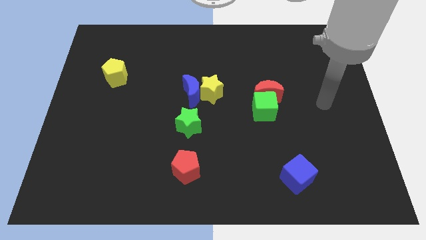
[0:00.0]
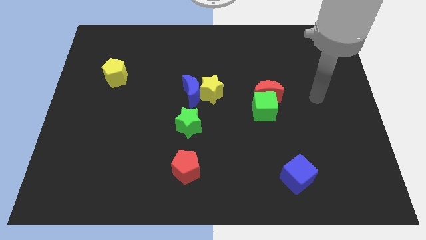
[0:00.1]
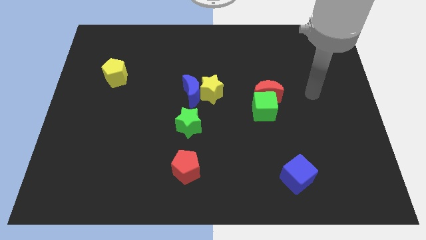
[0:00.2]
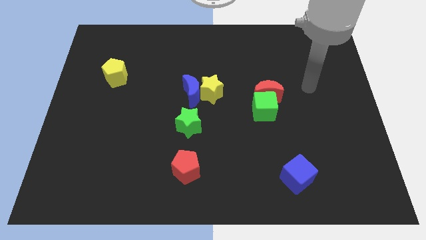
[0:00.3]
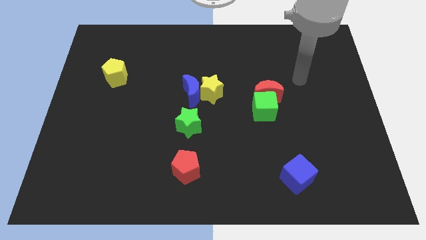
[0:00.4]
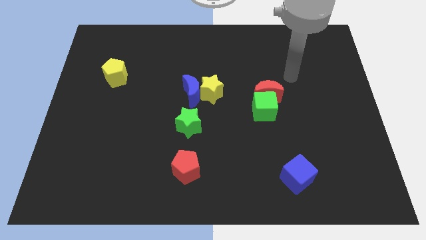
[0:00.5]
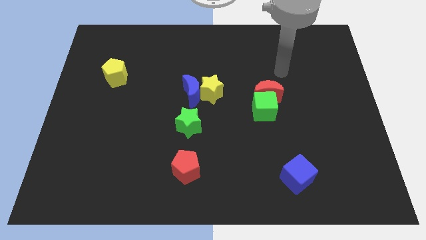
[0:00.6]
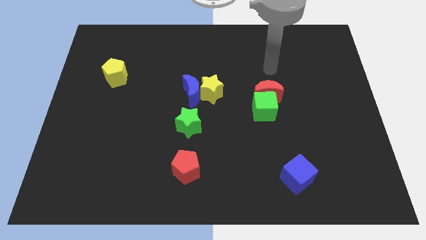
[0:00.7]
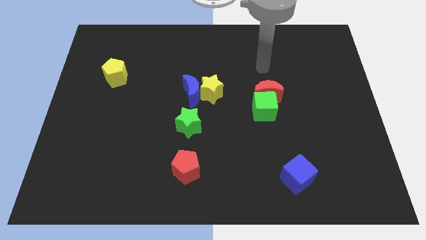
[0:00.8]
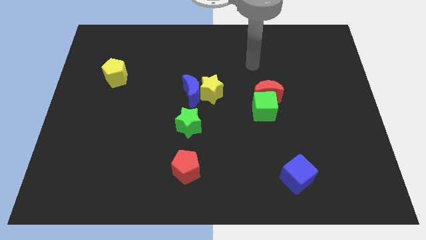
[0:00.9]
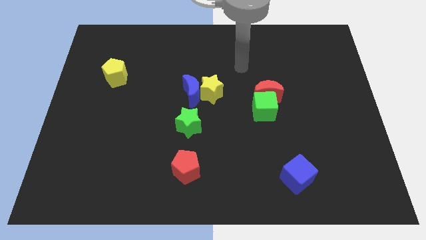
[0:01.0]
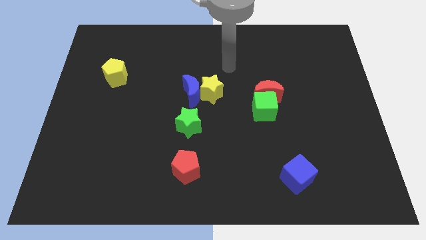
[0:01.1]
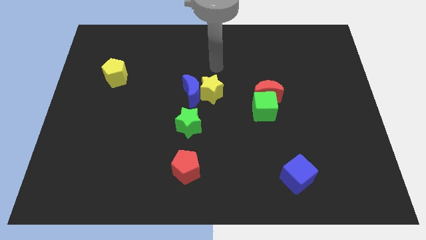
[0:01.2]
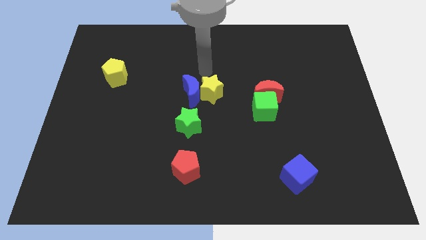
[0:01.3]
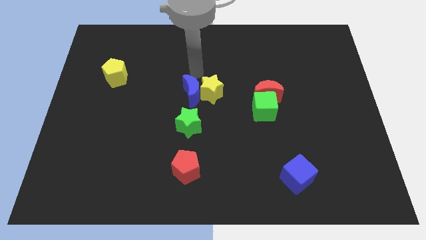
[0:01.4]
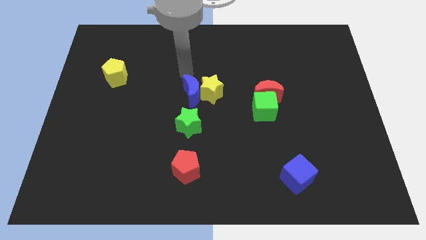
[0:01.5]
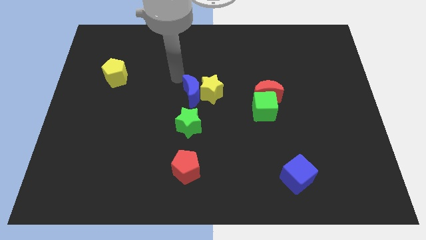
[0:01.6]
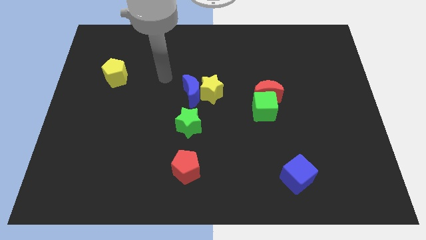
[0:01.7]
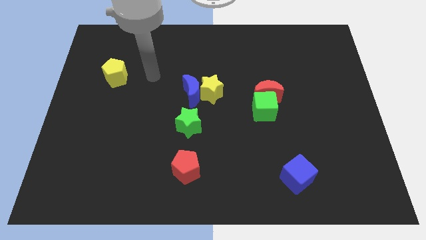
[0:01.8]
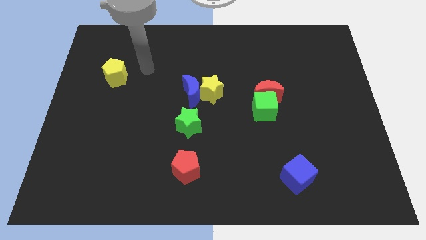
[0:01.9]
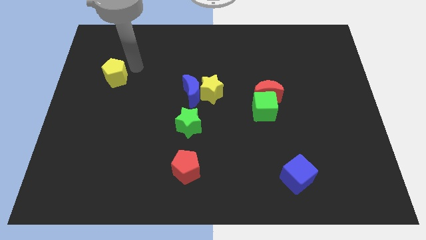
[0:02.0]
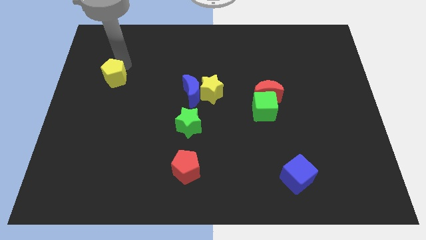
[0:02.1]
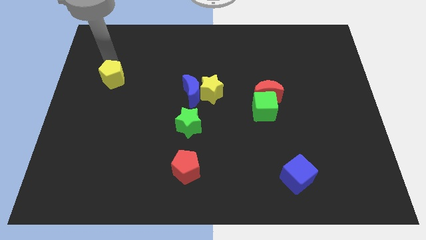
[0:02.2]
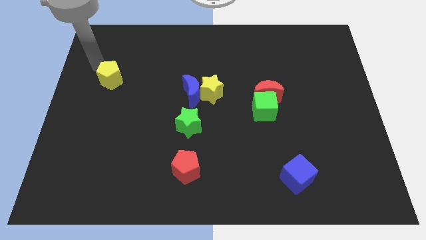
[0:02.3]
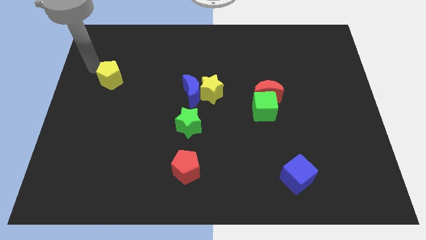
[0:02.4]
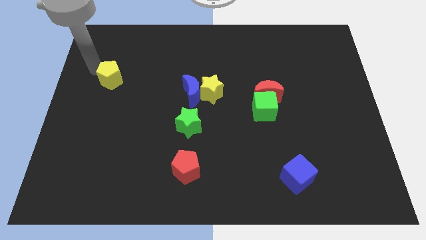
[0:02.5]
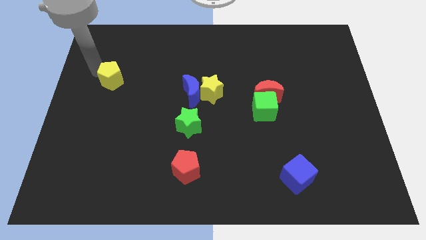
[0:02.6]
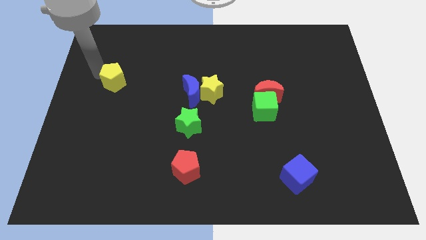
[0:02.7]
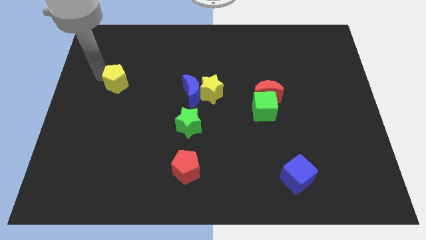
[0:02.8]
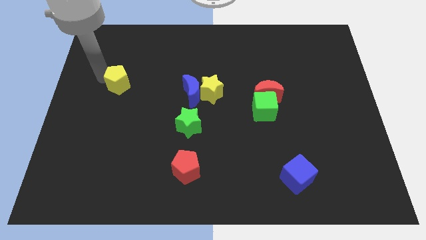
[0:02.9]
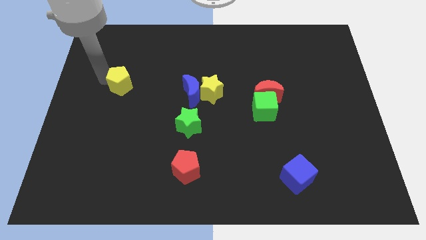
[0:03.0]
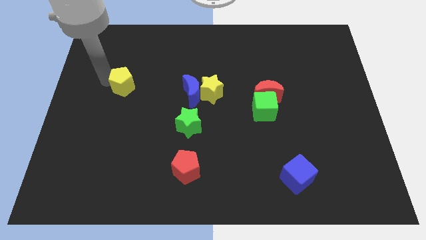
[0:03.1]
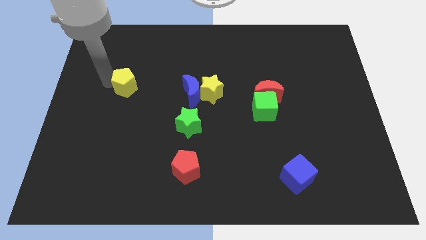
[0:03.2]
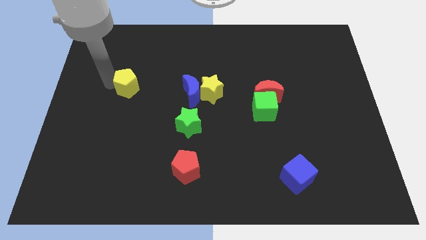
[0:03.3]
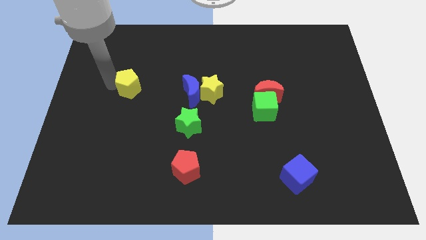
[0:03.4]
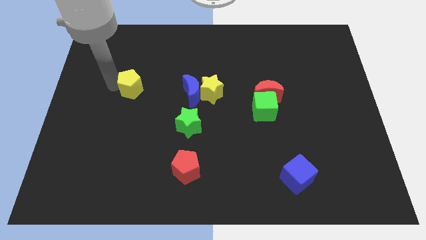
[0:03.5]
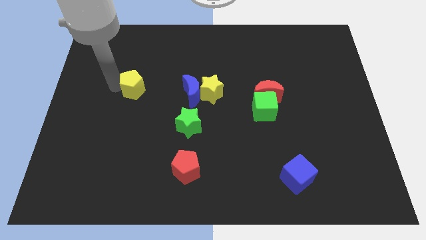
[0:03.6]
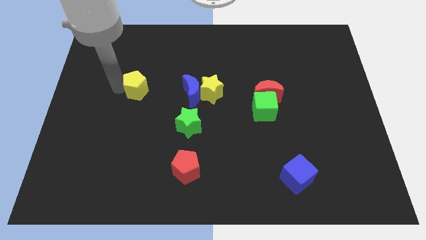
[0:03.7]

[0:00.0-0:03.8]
slightly push the yellow pentagon downwards and to the right diagonally

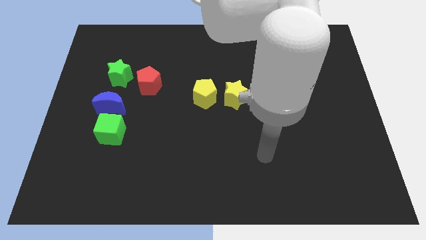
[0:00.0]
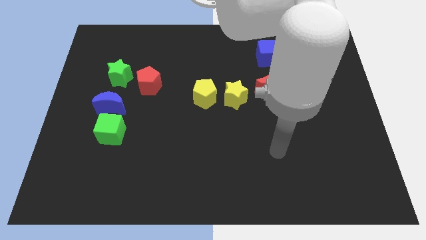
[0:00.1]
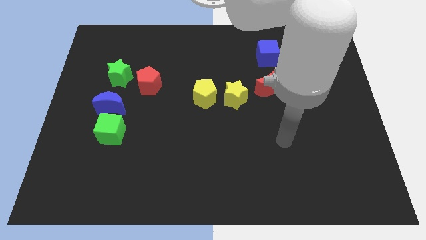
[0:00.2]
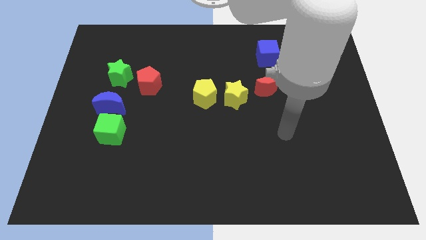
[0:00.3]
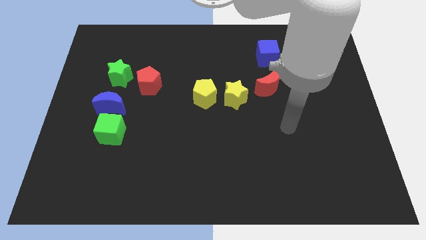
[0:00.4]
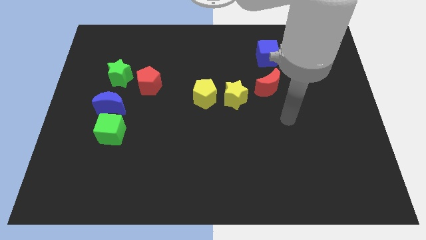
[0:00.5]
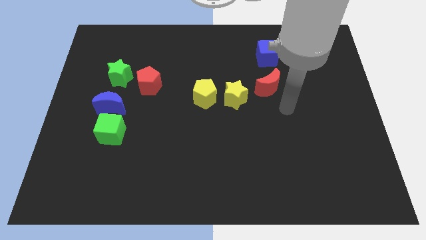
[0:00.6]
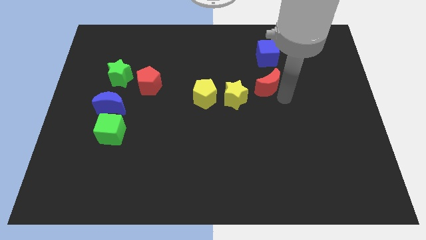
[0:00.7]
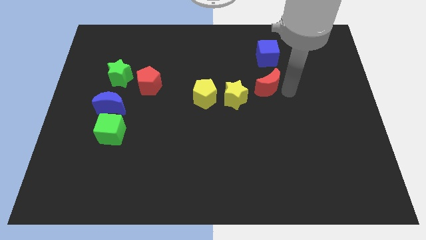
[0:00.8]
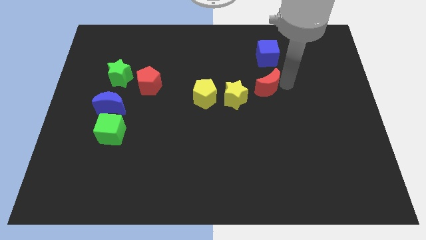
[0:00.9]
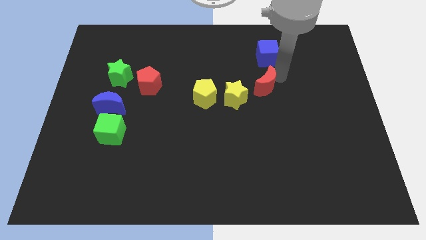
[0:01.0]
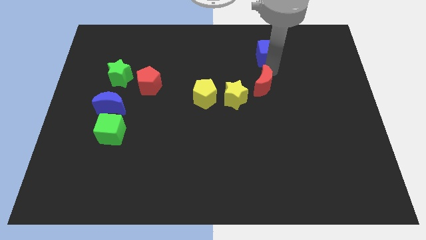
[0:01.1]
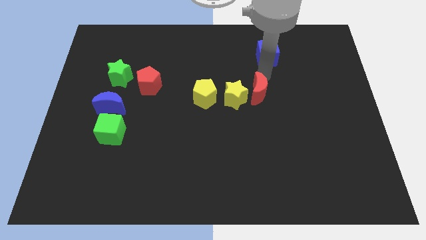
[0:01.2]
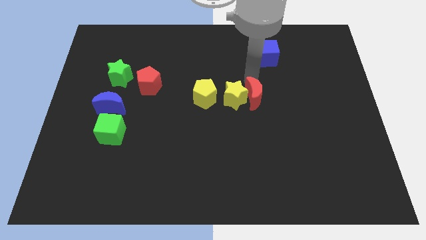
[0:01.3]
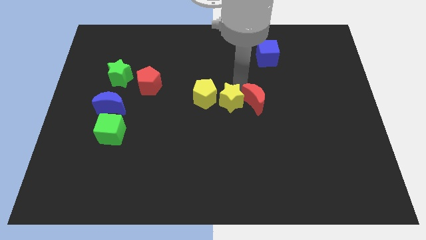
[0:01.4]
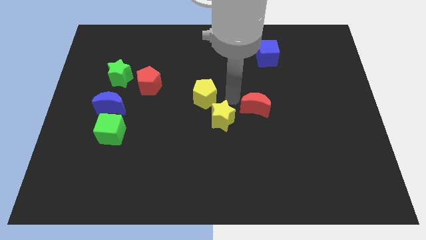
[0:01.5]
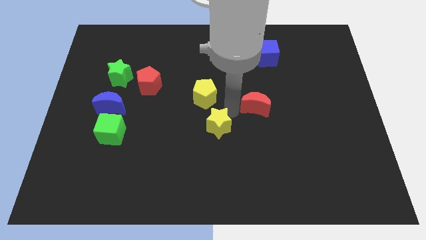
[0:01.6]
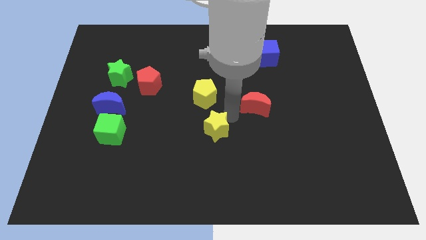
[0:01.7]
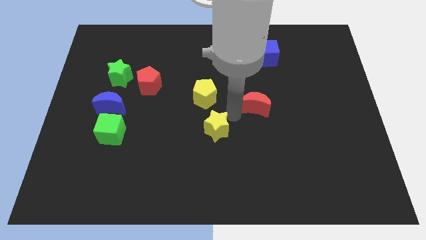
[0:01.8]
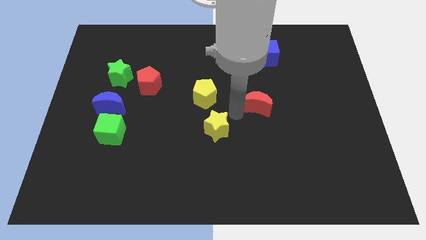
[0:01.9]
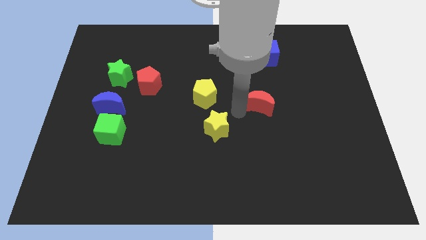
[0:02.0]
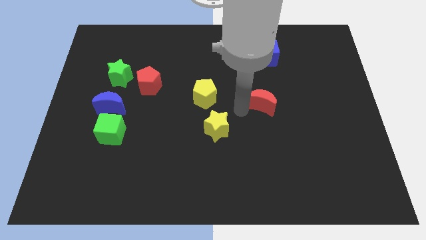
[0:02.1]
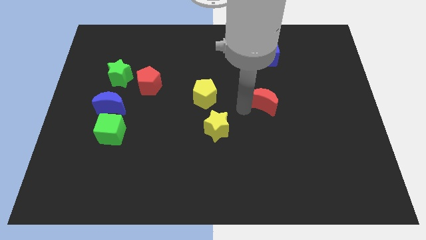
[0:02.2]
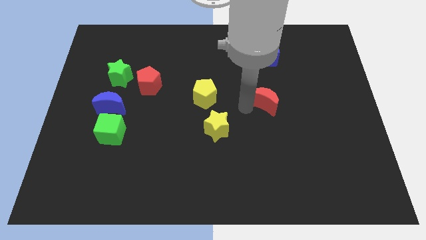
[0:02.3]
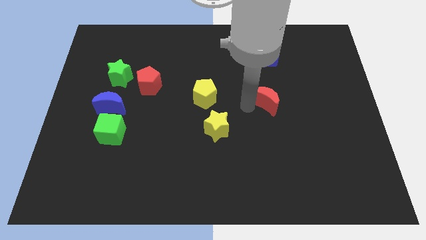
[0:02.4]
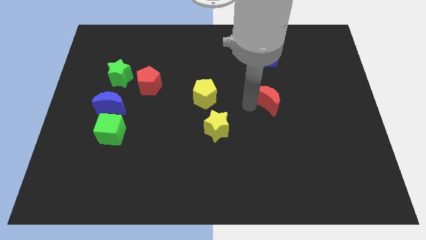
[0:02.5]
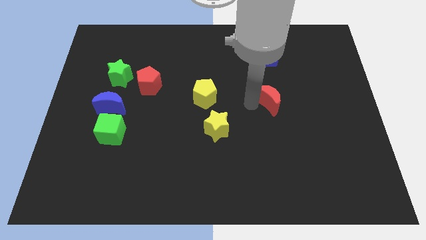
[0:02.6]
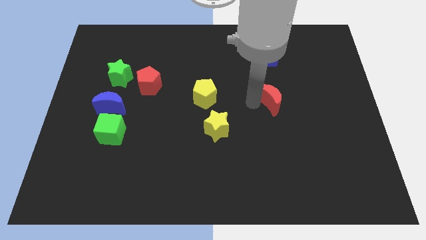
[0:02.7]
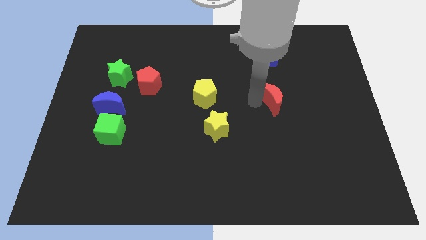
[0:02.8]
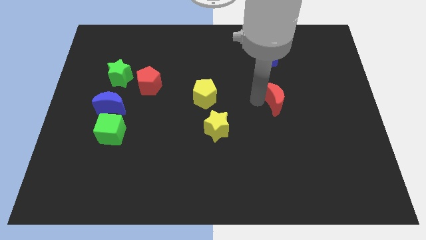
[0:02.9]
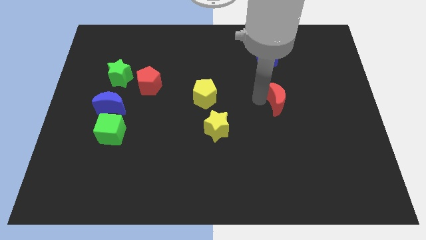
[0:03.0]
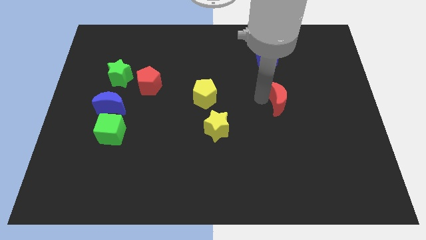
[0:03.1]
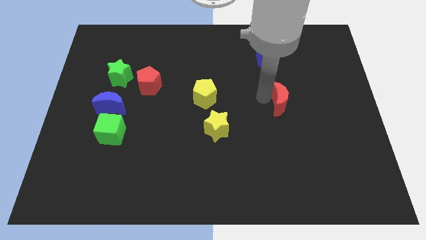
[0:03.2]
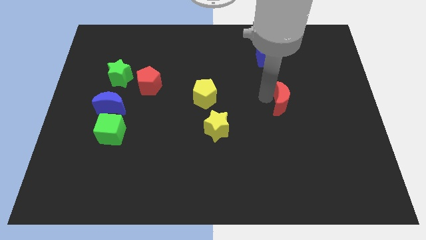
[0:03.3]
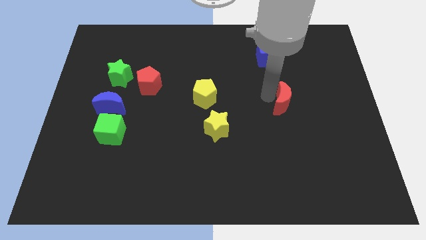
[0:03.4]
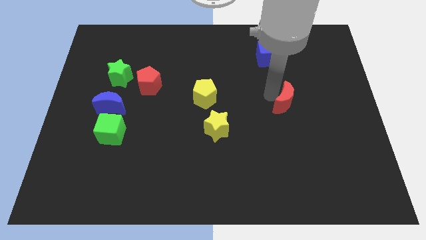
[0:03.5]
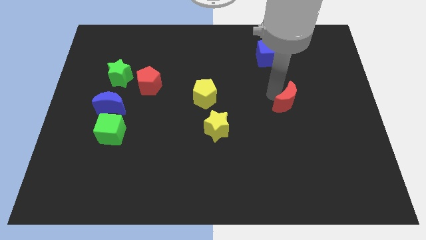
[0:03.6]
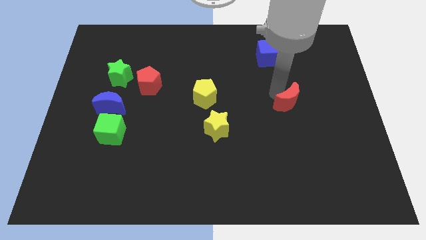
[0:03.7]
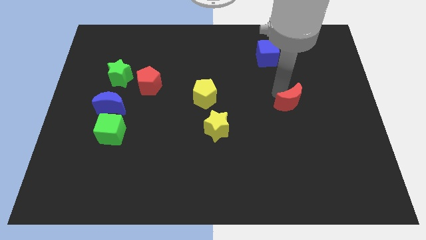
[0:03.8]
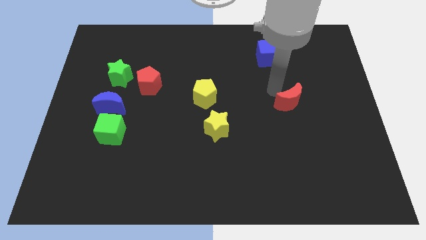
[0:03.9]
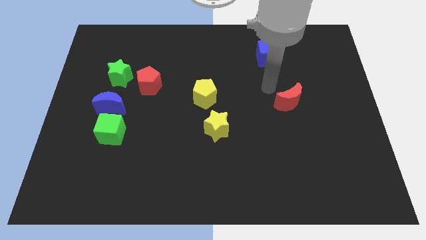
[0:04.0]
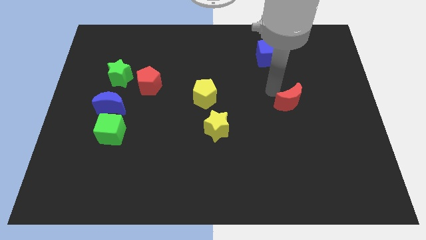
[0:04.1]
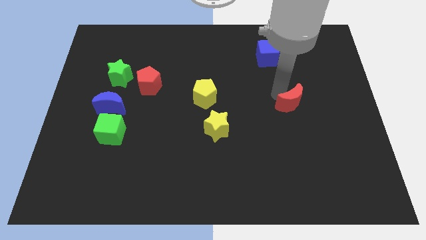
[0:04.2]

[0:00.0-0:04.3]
slightly move the red moon downwards and right

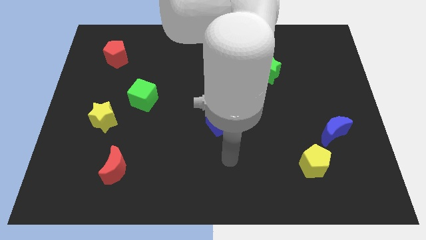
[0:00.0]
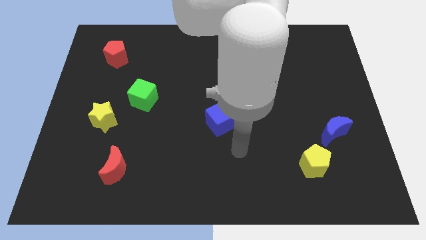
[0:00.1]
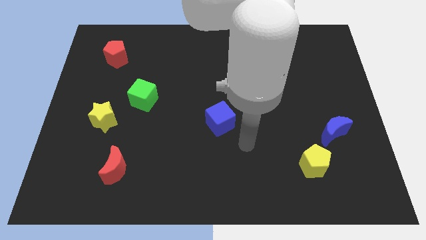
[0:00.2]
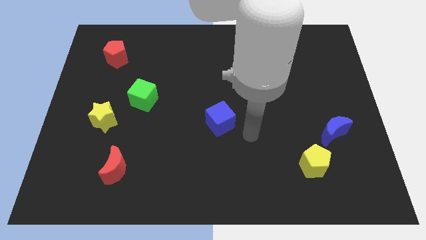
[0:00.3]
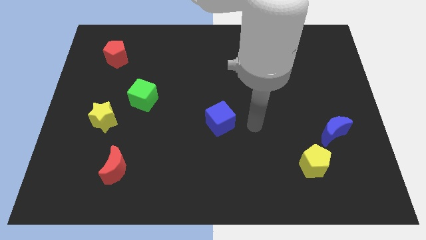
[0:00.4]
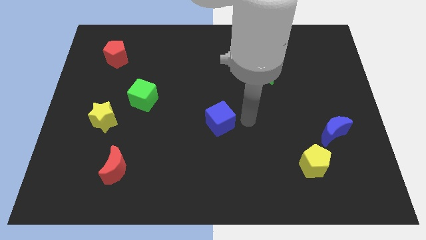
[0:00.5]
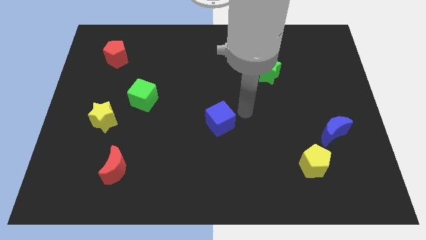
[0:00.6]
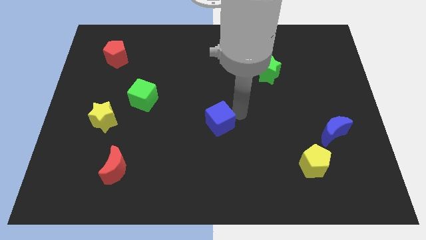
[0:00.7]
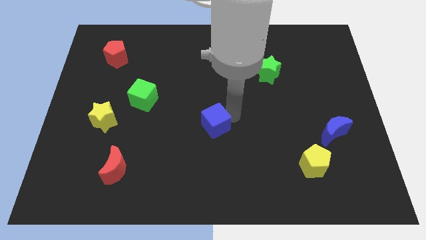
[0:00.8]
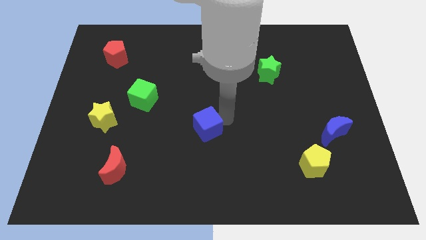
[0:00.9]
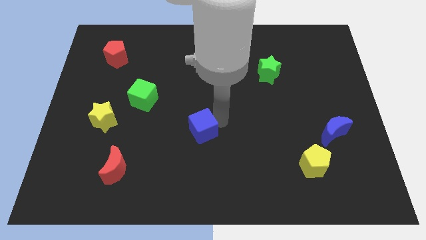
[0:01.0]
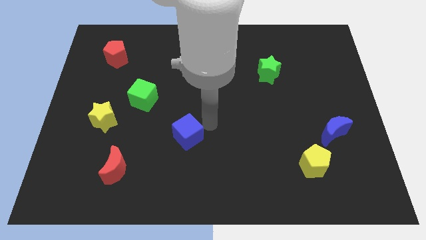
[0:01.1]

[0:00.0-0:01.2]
slide the blue cube downwards and then to the left a little
